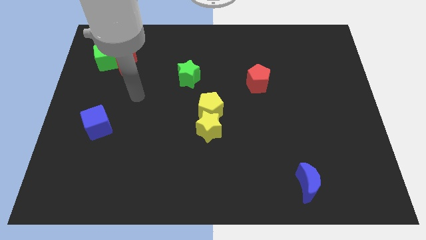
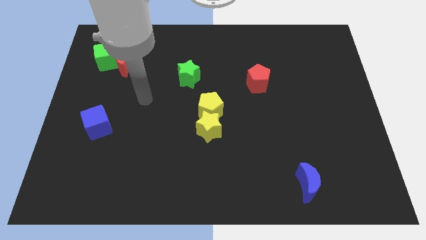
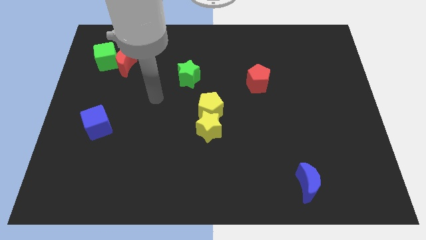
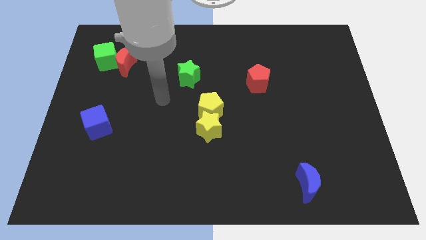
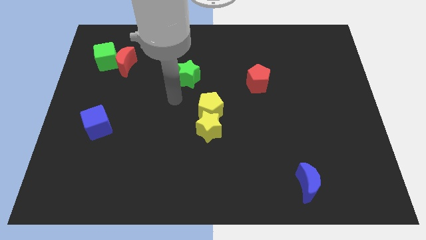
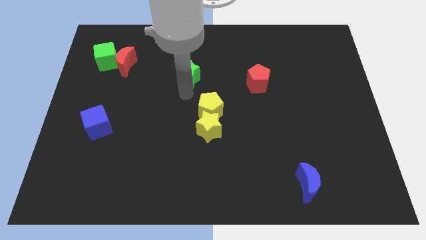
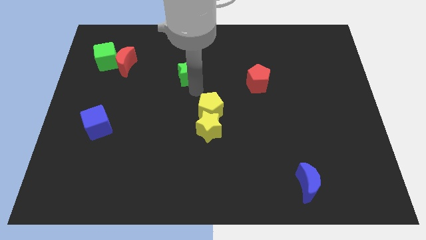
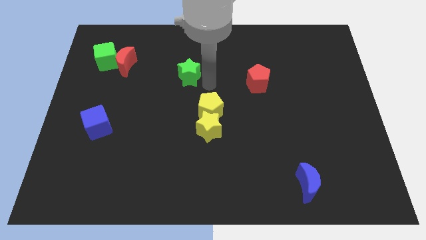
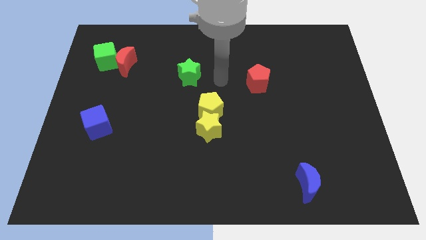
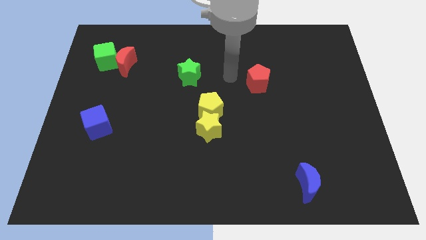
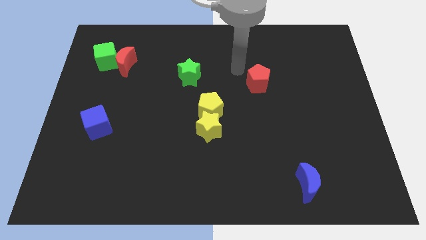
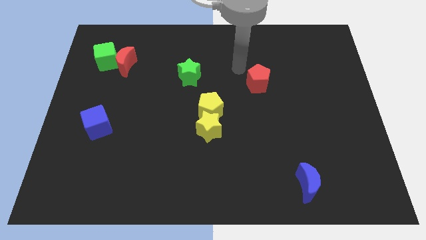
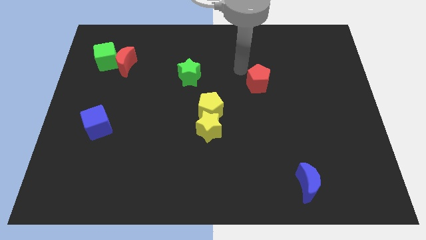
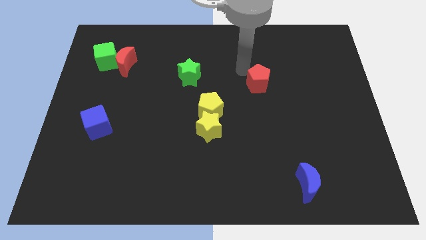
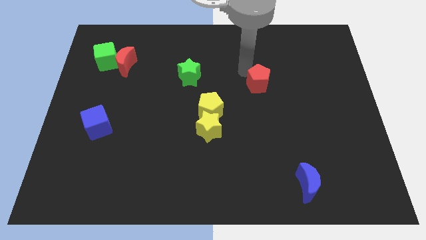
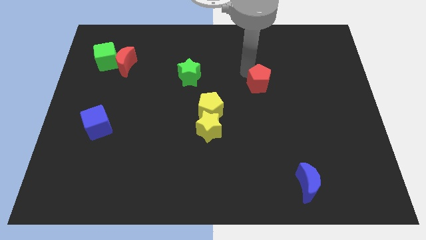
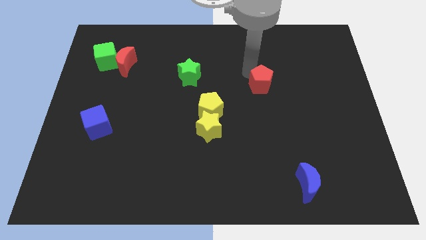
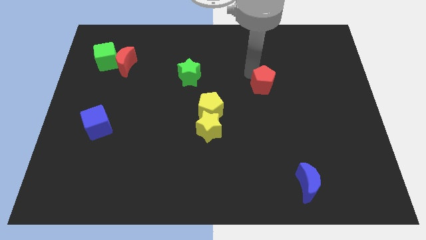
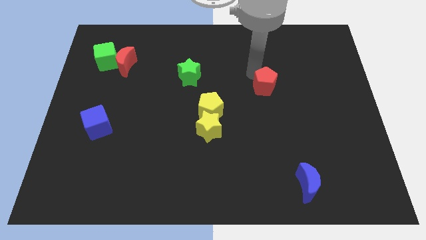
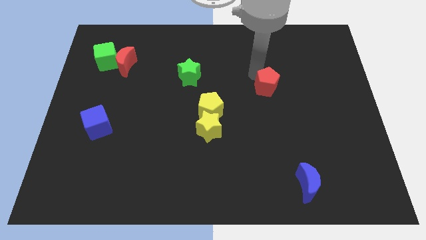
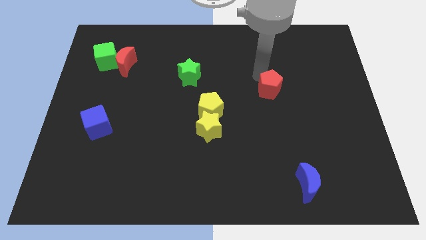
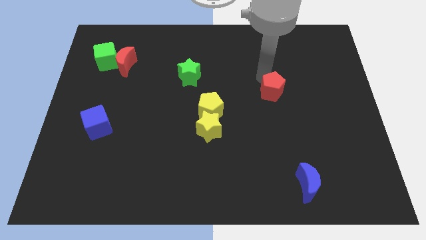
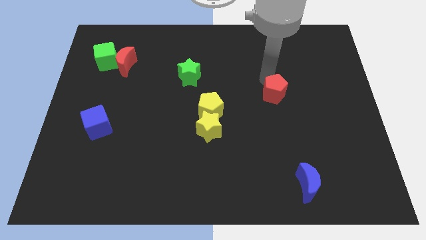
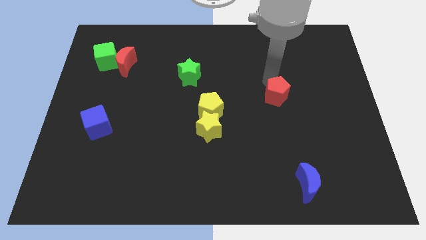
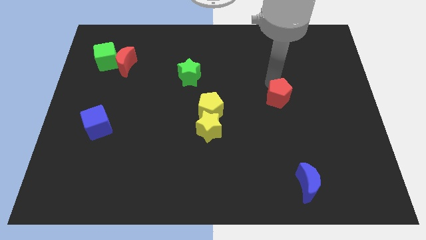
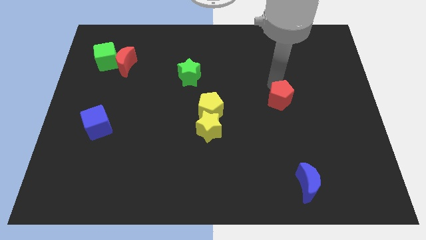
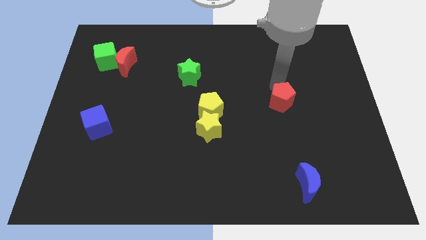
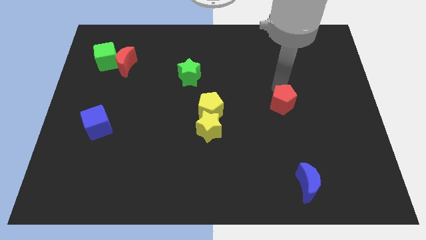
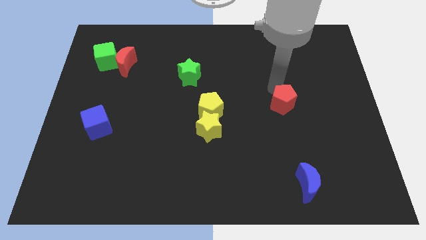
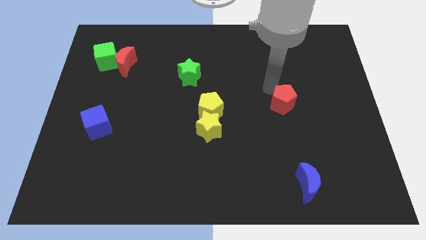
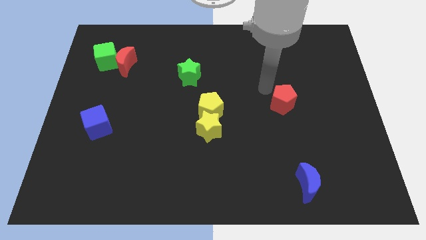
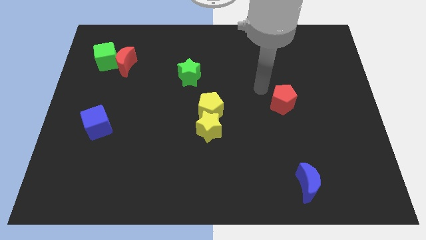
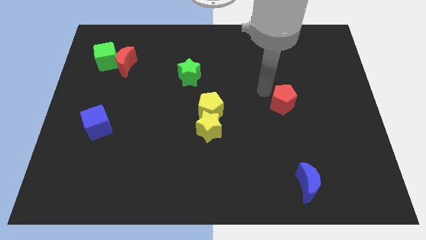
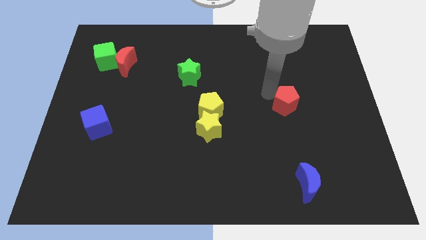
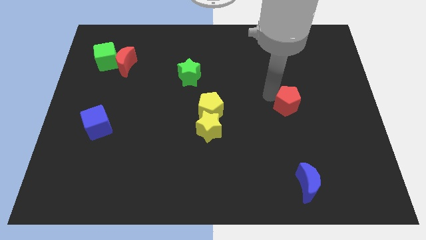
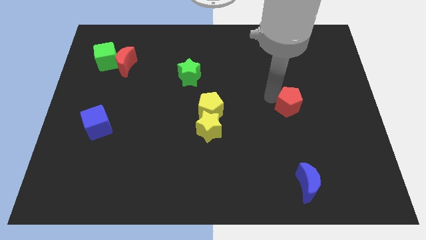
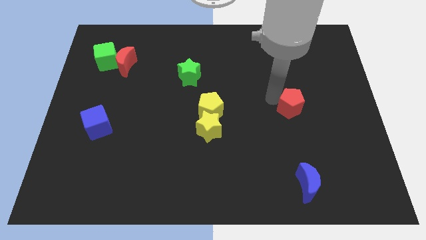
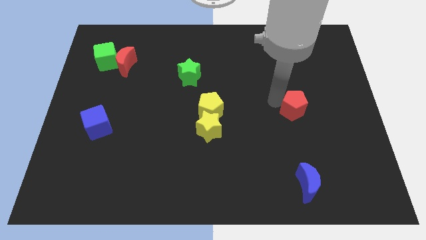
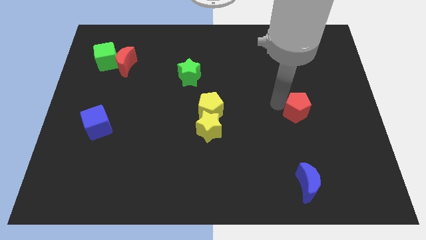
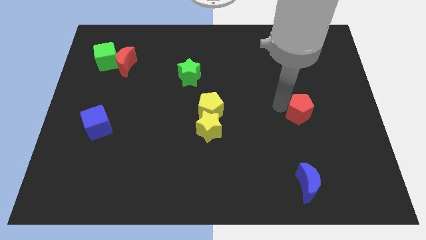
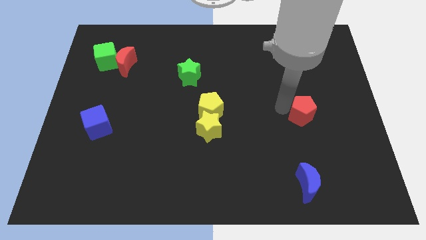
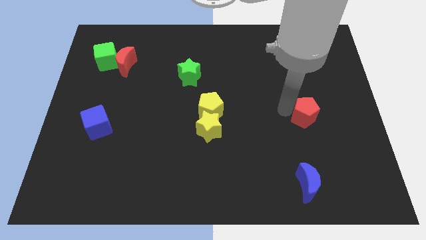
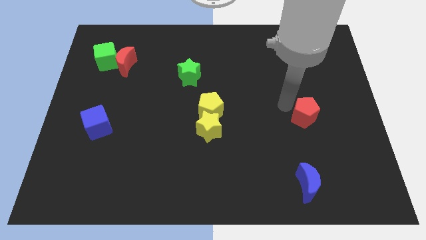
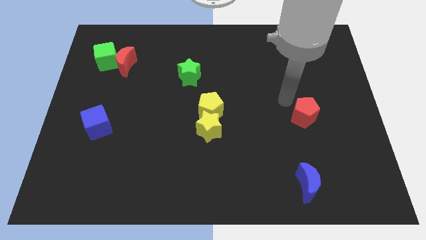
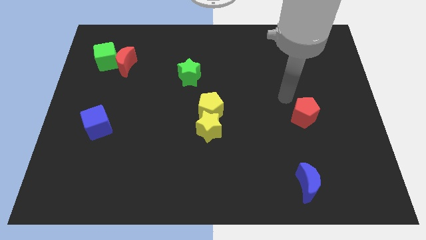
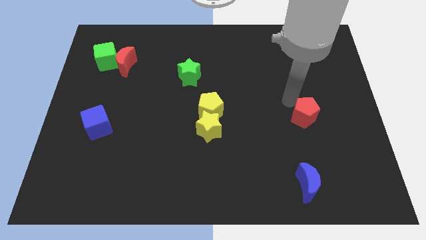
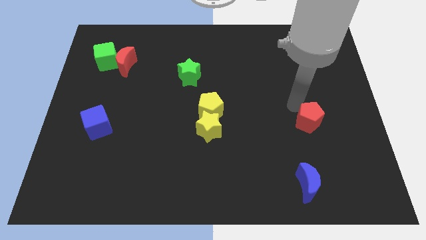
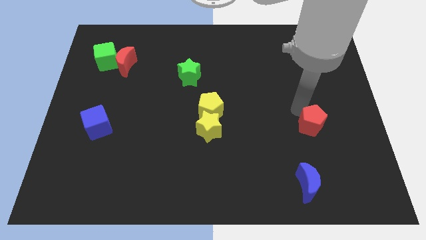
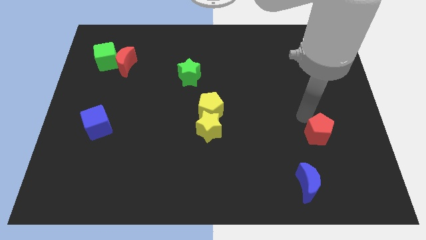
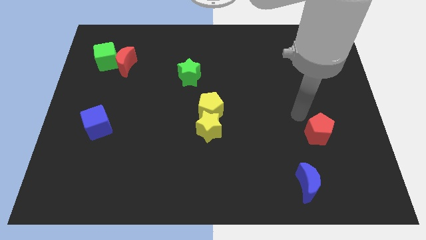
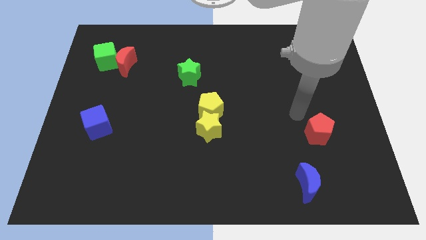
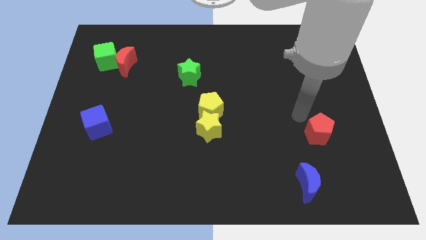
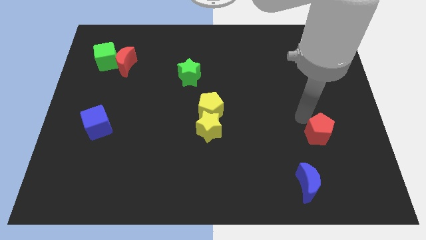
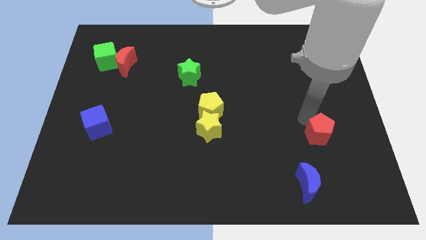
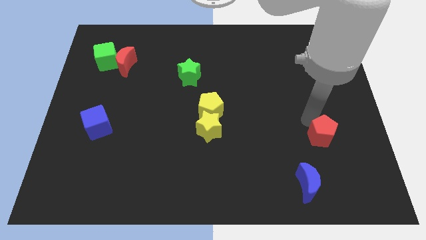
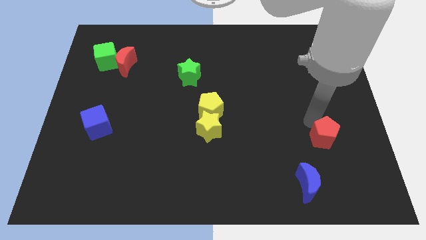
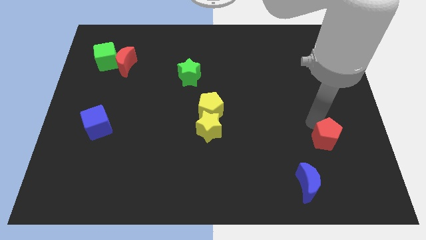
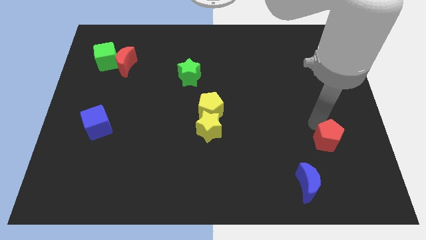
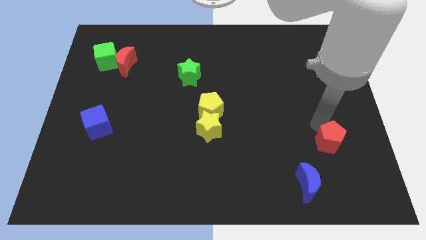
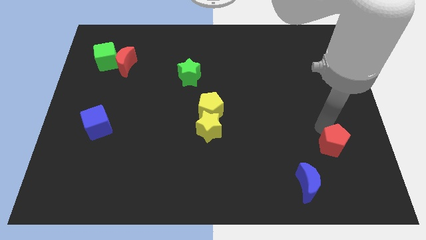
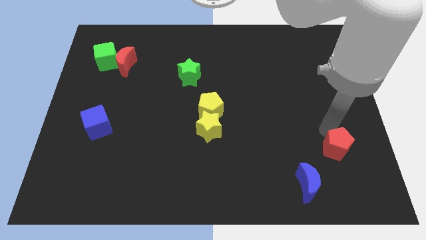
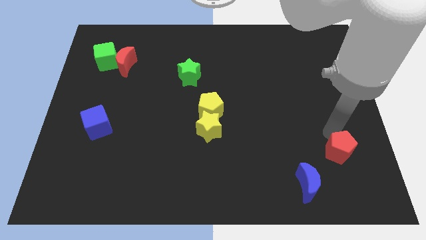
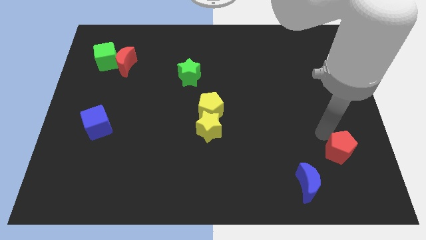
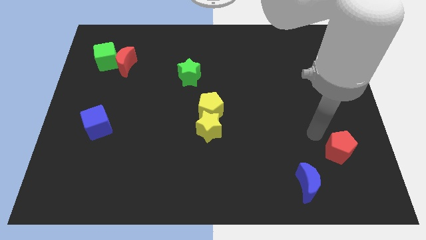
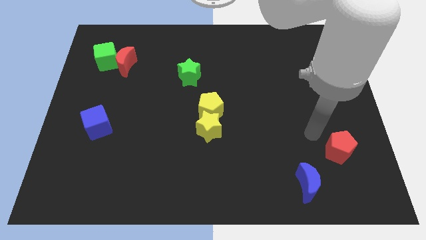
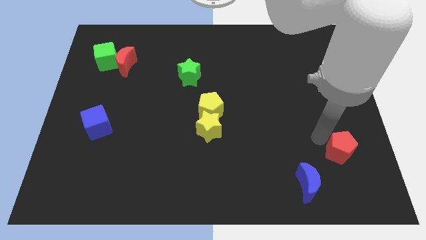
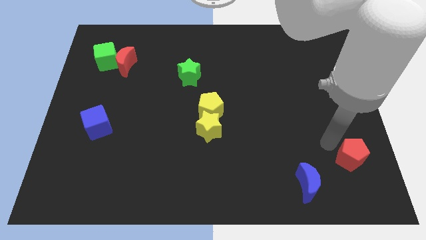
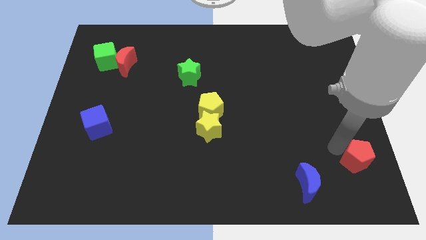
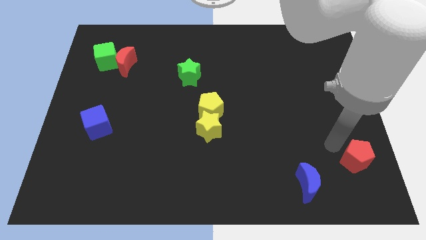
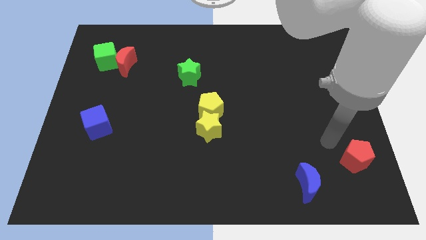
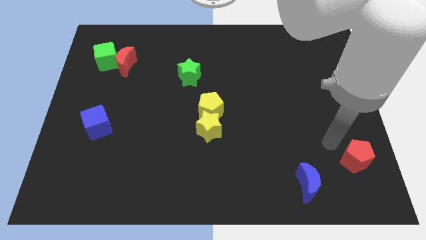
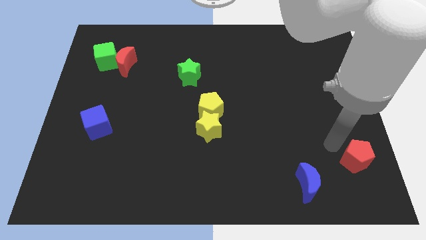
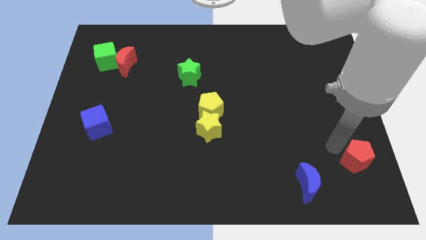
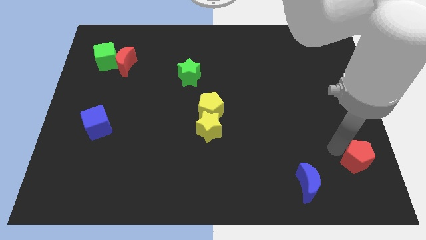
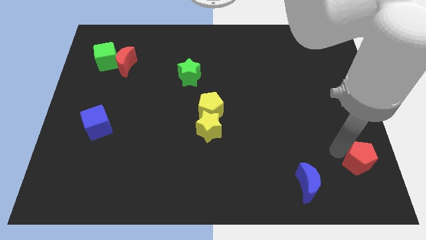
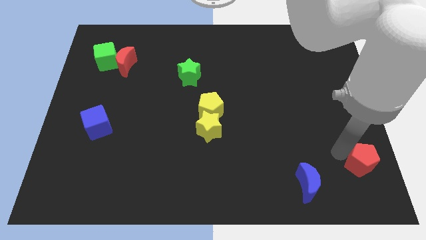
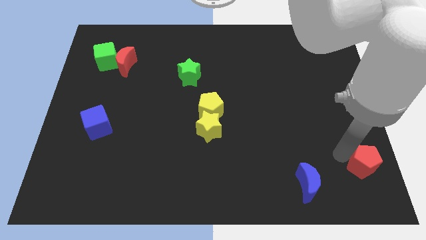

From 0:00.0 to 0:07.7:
put the red pentagon to the lower right corner
